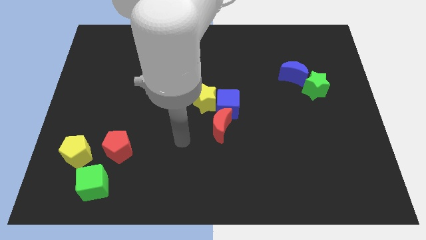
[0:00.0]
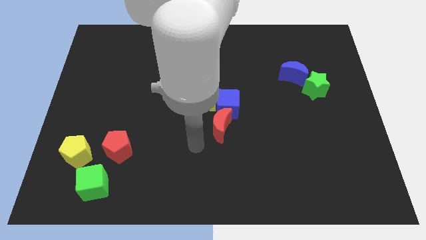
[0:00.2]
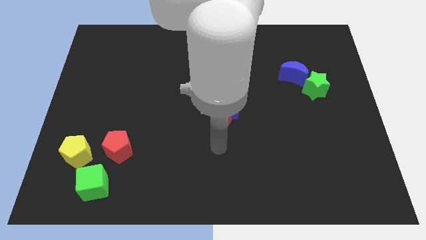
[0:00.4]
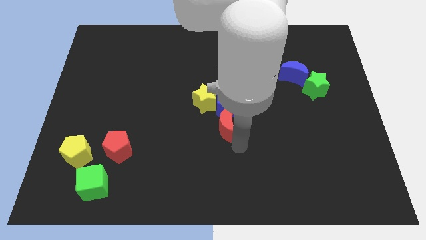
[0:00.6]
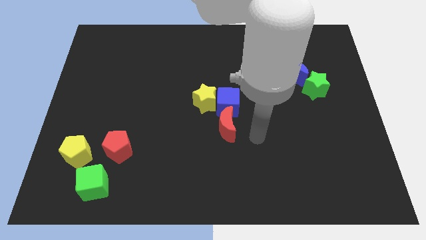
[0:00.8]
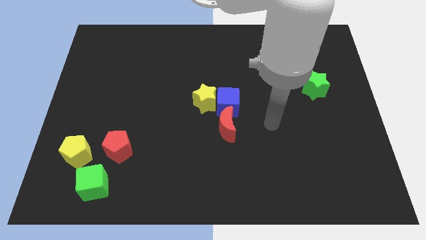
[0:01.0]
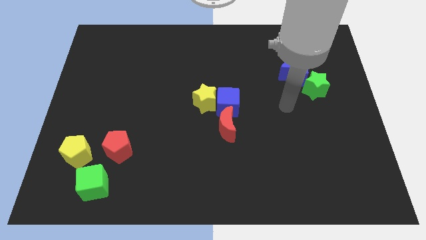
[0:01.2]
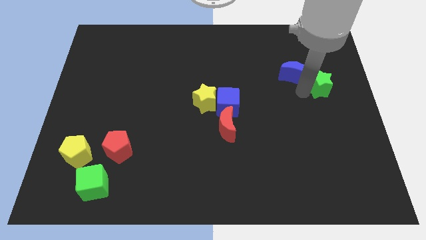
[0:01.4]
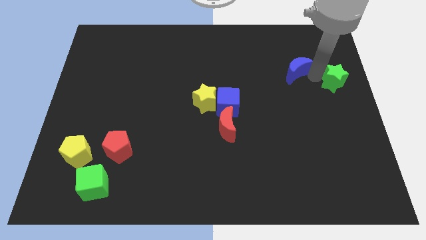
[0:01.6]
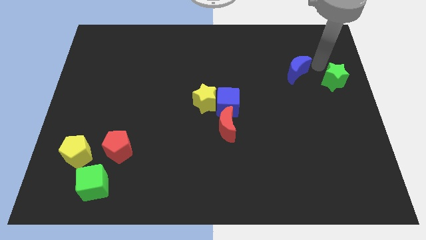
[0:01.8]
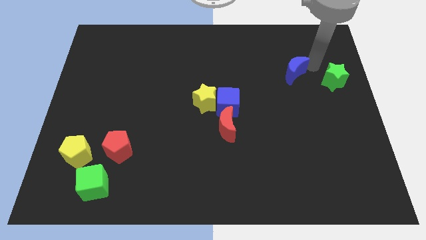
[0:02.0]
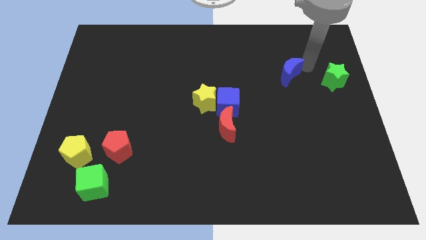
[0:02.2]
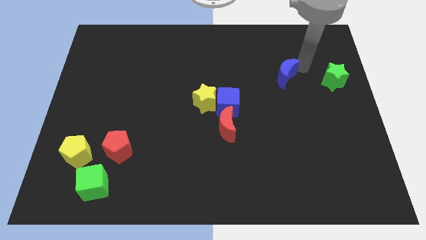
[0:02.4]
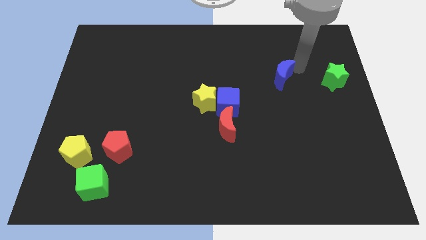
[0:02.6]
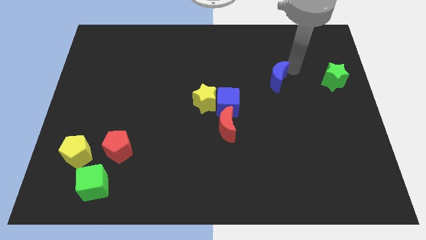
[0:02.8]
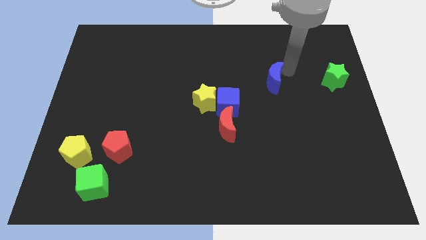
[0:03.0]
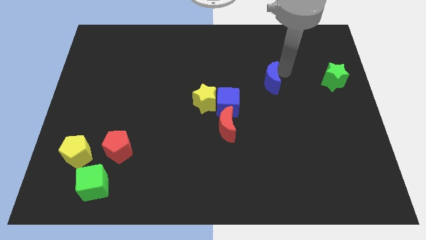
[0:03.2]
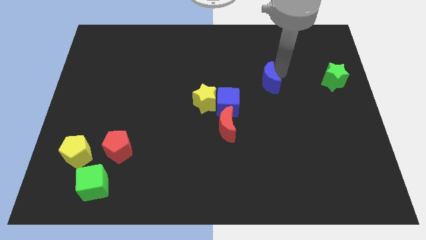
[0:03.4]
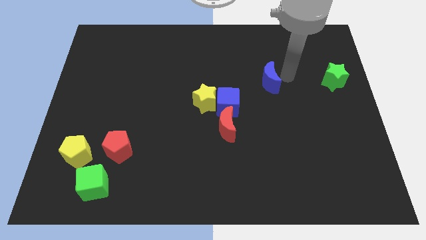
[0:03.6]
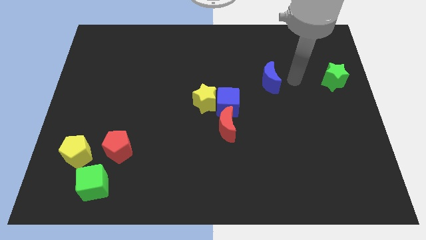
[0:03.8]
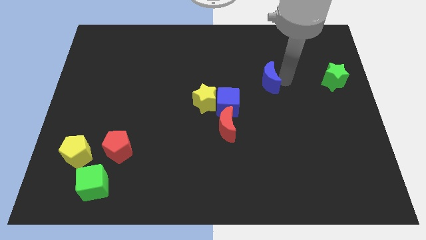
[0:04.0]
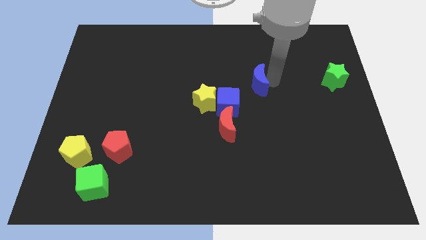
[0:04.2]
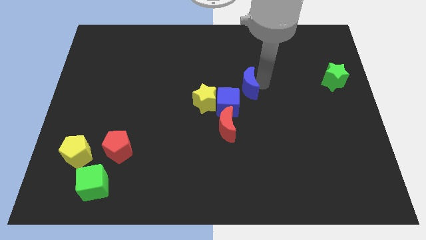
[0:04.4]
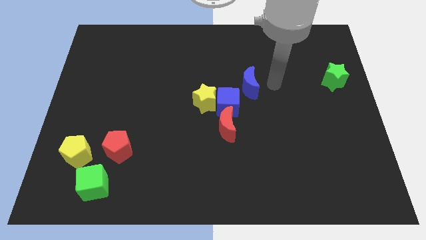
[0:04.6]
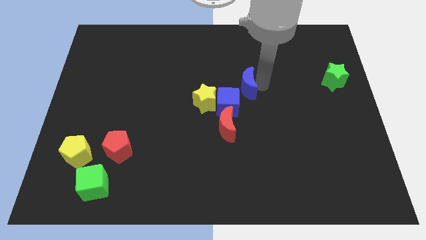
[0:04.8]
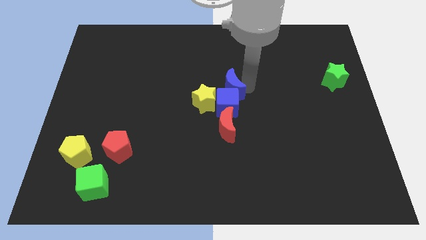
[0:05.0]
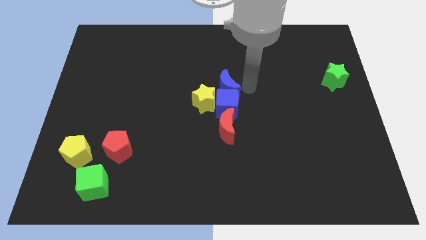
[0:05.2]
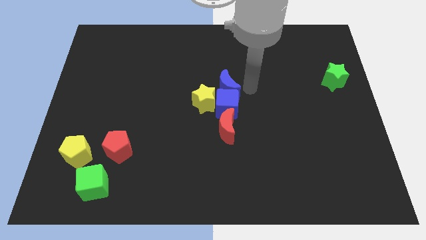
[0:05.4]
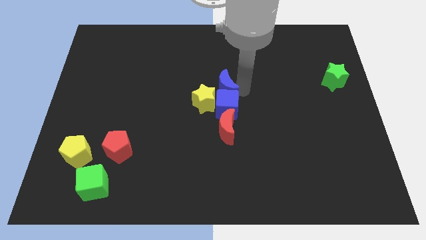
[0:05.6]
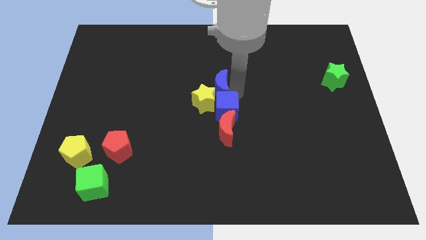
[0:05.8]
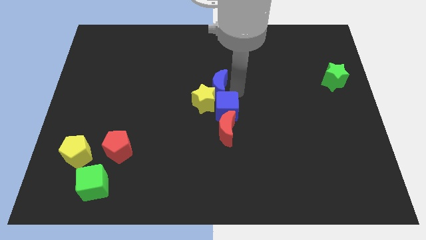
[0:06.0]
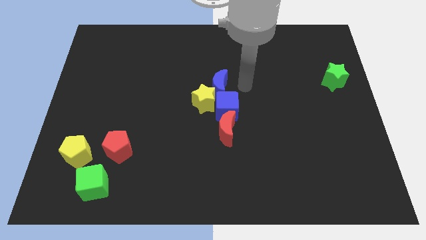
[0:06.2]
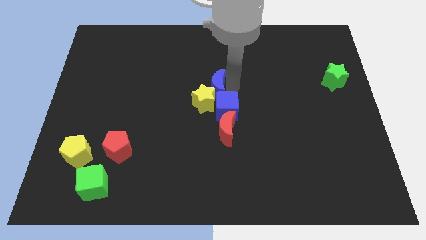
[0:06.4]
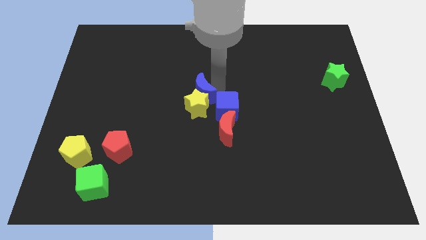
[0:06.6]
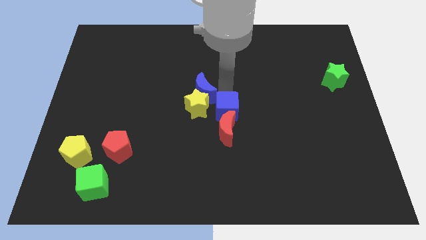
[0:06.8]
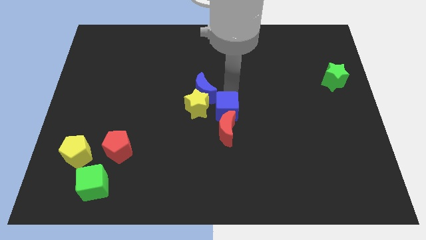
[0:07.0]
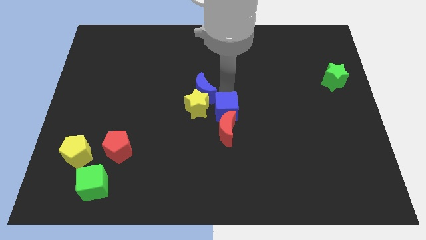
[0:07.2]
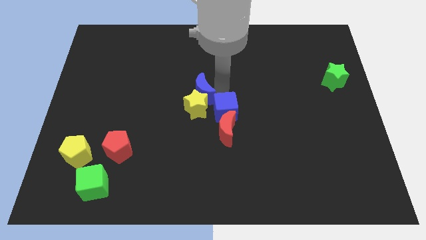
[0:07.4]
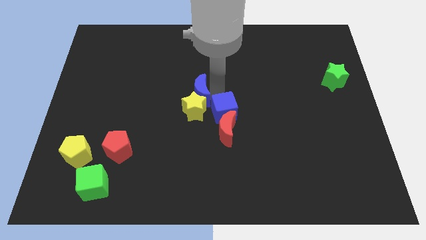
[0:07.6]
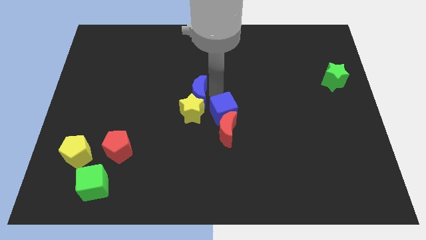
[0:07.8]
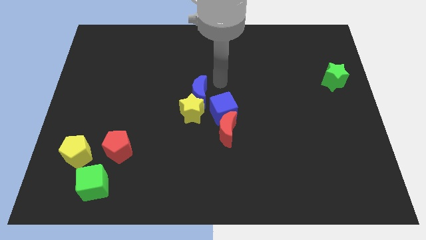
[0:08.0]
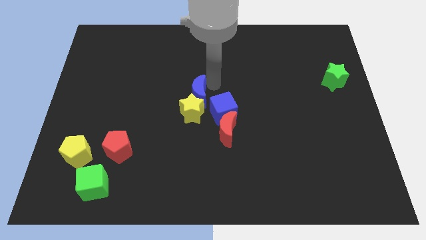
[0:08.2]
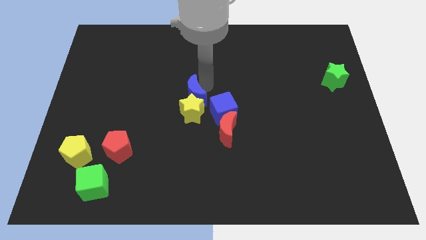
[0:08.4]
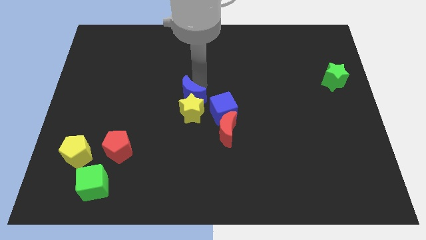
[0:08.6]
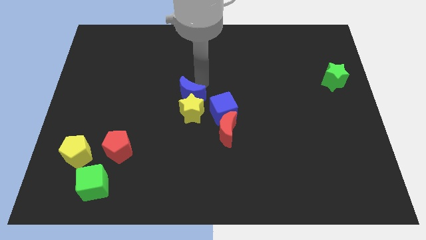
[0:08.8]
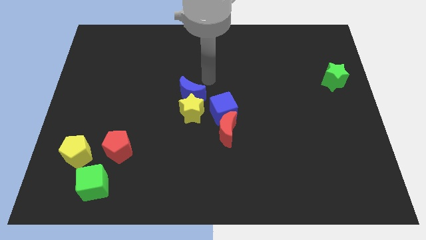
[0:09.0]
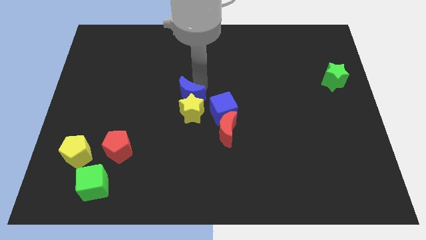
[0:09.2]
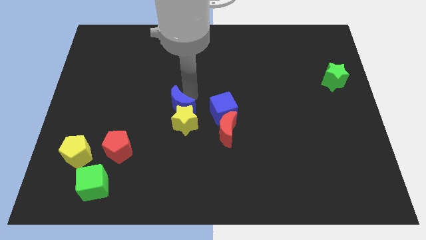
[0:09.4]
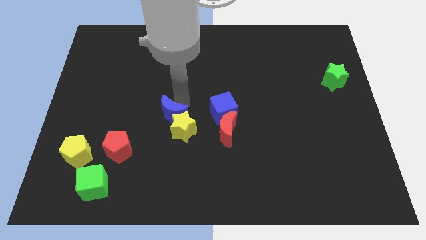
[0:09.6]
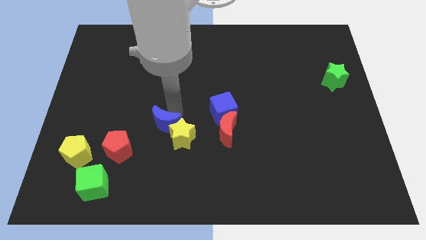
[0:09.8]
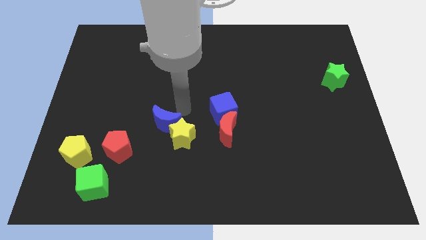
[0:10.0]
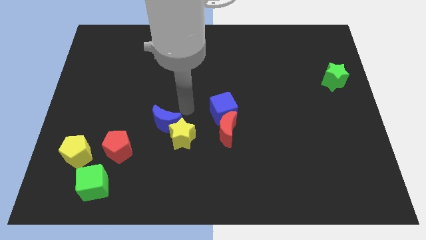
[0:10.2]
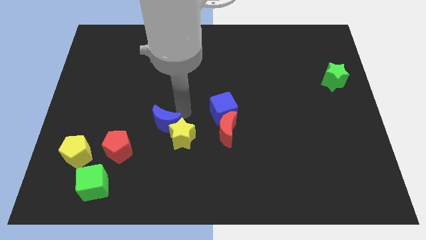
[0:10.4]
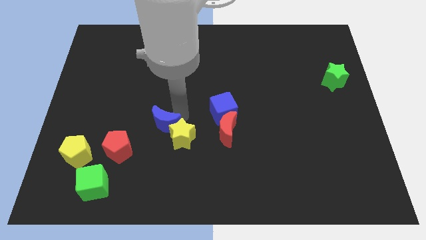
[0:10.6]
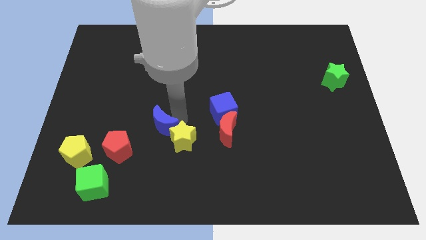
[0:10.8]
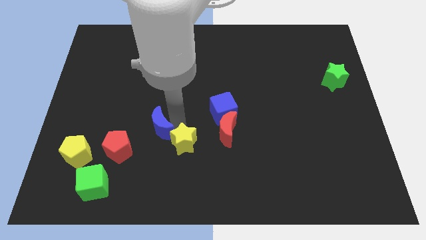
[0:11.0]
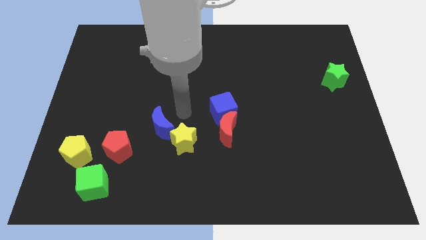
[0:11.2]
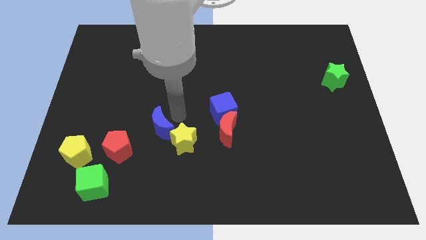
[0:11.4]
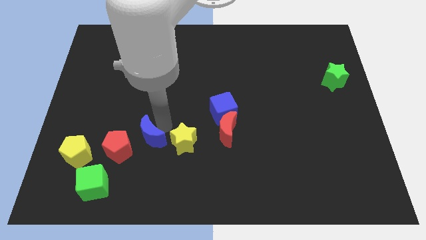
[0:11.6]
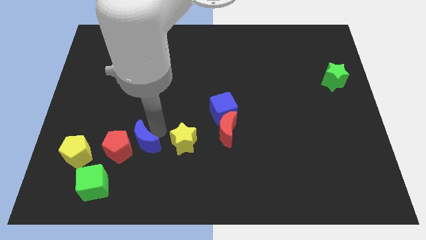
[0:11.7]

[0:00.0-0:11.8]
move the blue moon just right of the yellow pentagon
